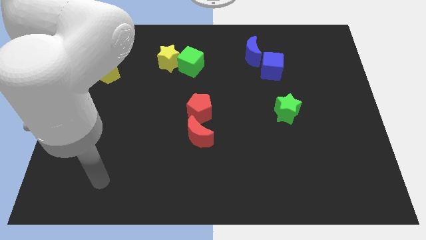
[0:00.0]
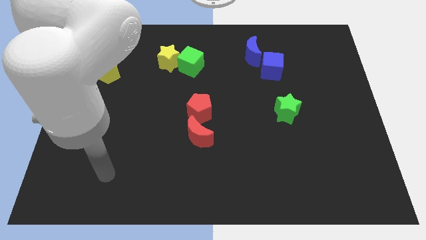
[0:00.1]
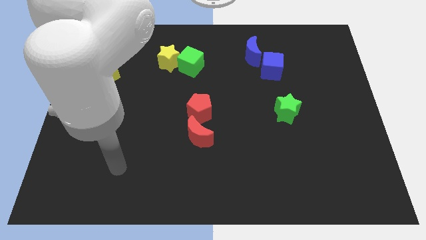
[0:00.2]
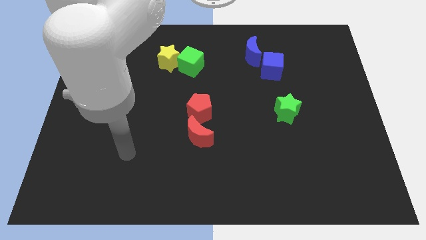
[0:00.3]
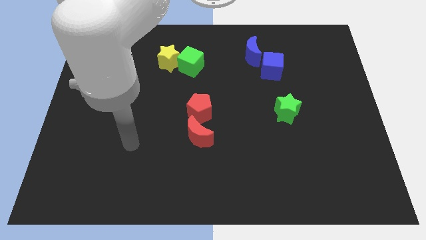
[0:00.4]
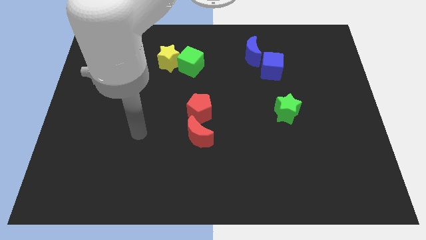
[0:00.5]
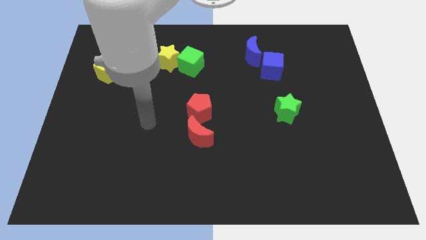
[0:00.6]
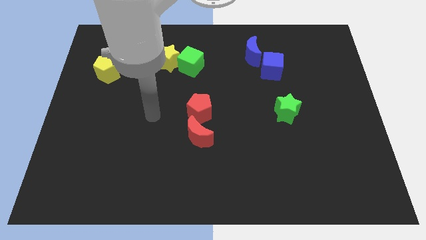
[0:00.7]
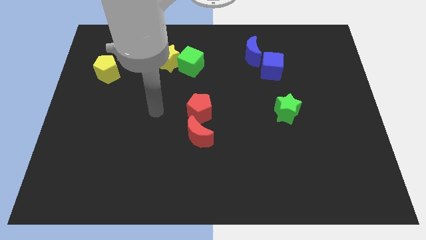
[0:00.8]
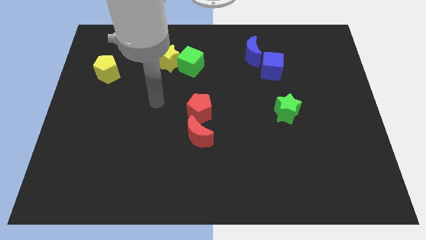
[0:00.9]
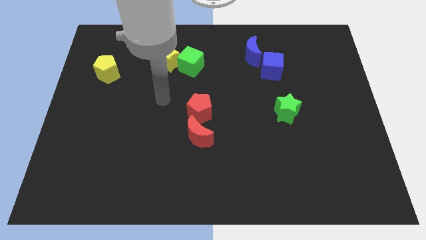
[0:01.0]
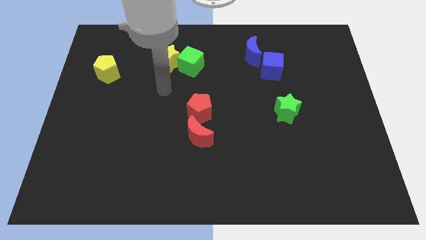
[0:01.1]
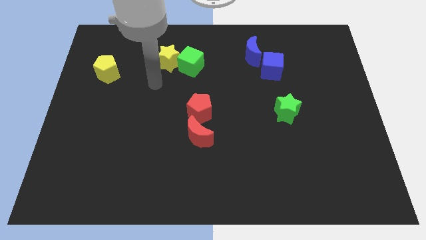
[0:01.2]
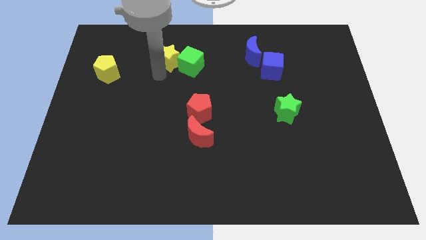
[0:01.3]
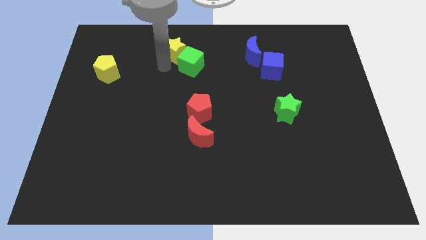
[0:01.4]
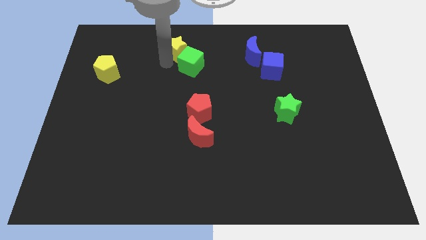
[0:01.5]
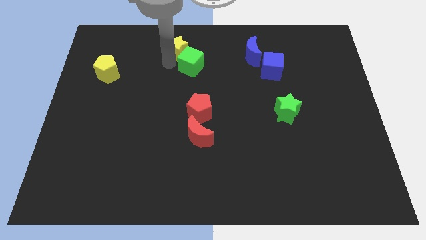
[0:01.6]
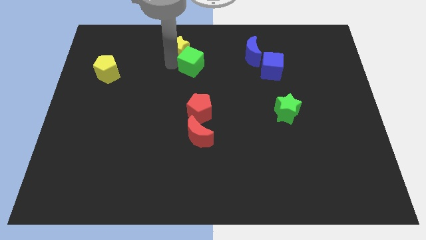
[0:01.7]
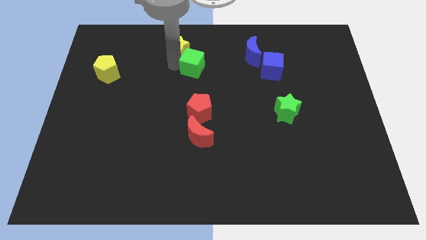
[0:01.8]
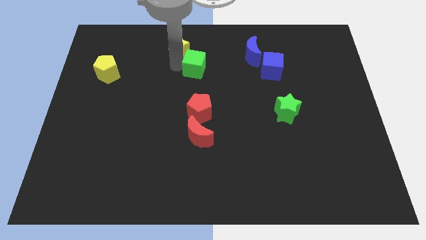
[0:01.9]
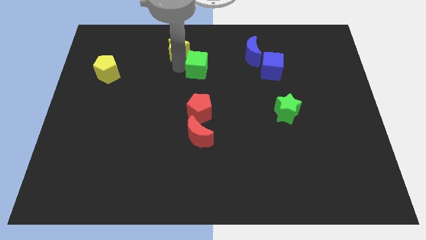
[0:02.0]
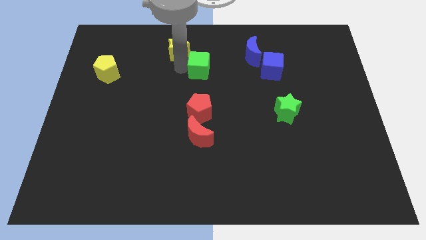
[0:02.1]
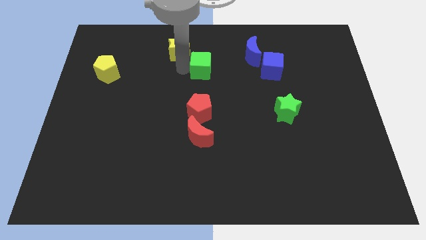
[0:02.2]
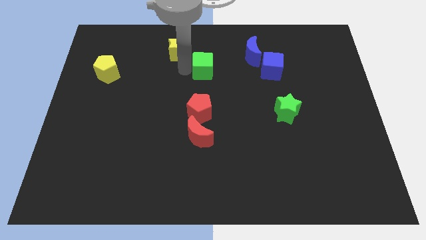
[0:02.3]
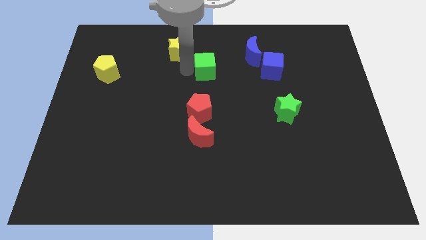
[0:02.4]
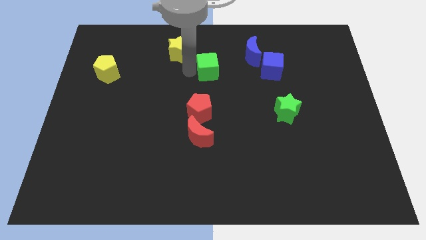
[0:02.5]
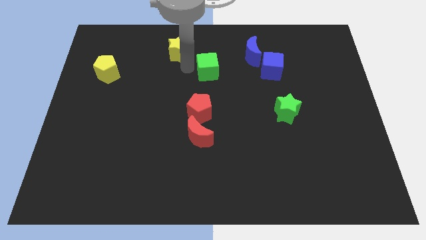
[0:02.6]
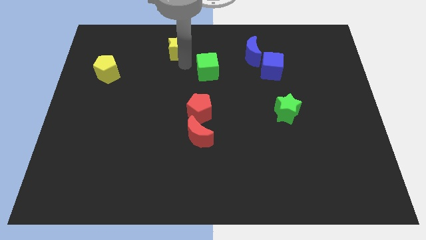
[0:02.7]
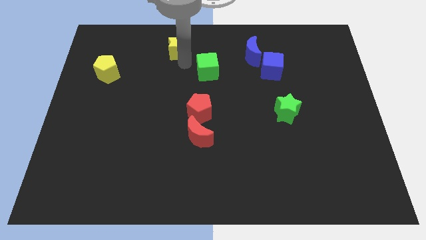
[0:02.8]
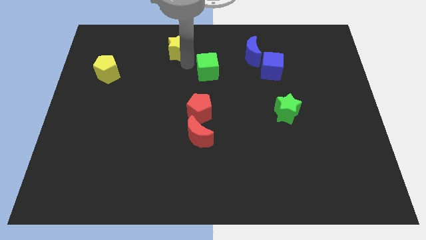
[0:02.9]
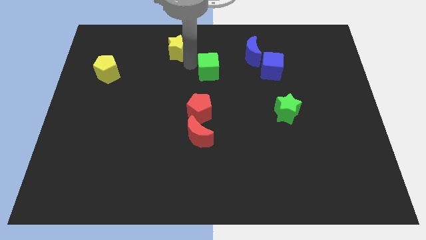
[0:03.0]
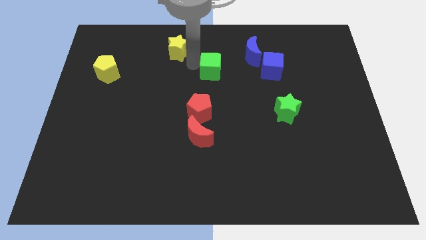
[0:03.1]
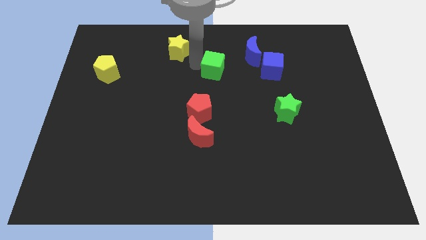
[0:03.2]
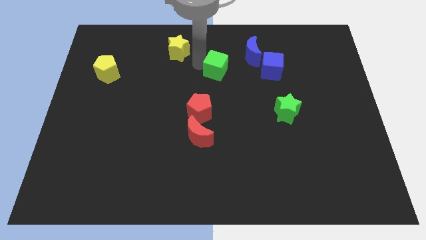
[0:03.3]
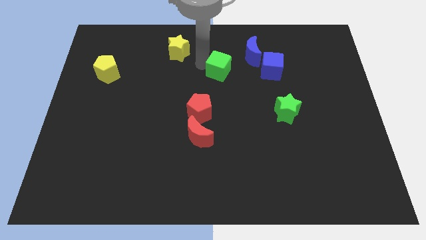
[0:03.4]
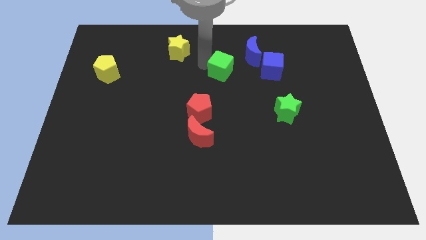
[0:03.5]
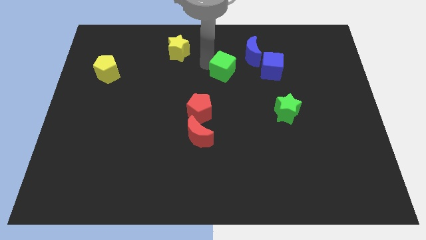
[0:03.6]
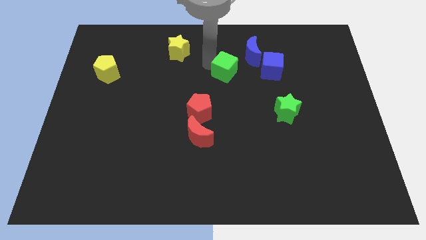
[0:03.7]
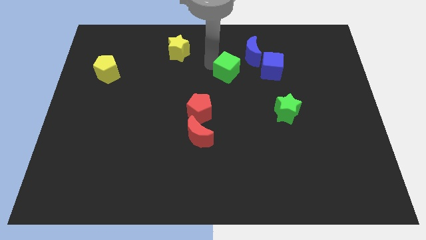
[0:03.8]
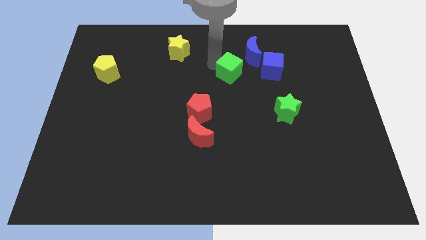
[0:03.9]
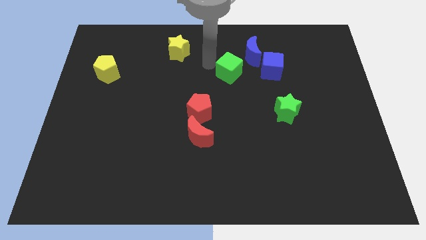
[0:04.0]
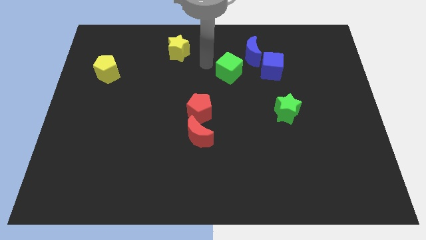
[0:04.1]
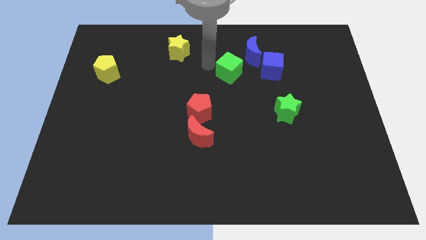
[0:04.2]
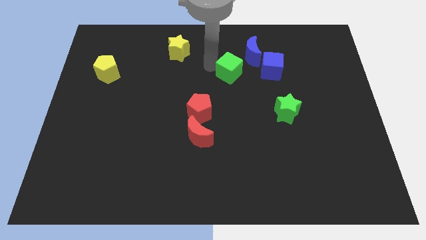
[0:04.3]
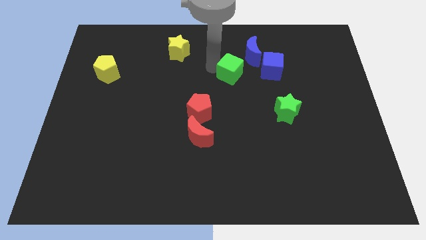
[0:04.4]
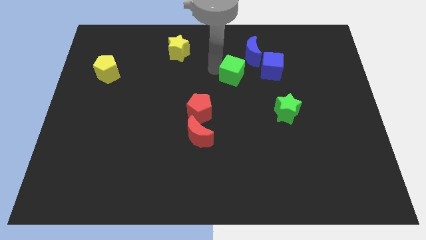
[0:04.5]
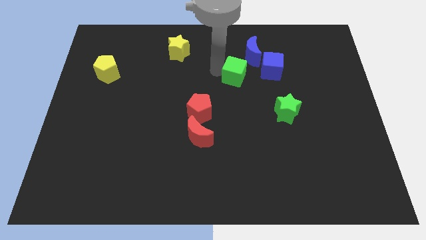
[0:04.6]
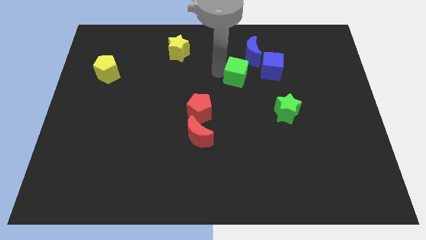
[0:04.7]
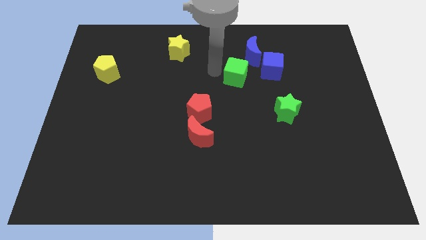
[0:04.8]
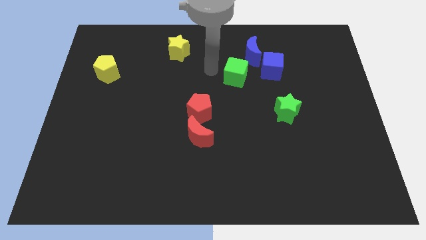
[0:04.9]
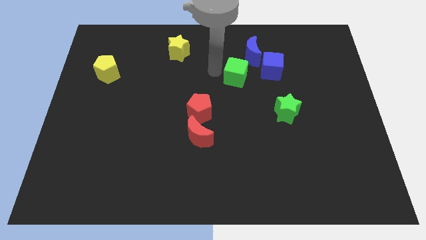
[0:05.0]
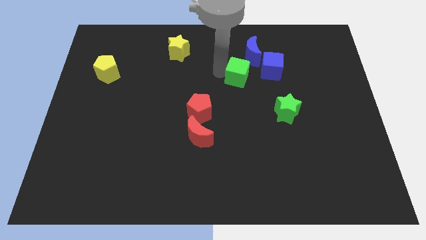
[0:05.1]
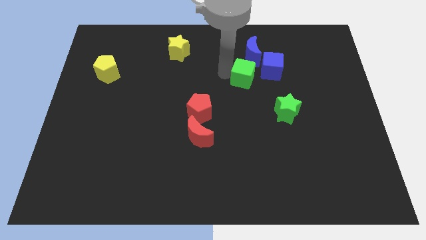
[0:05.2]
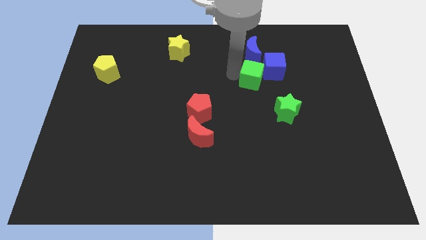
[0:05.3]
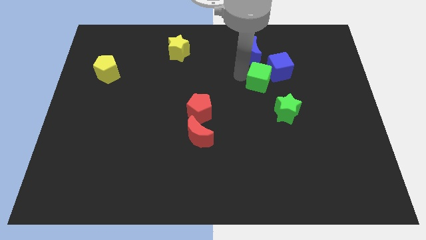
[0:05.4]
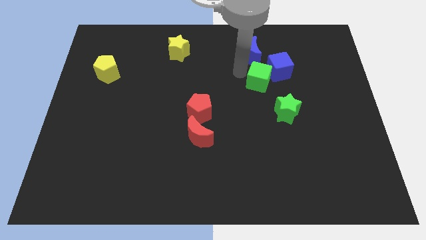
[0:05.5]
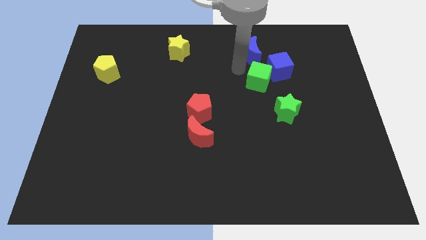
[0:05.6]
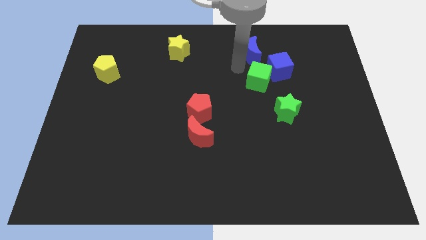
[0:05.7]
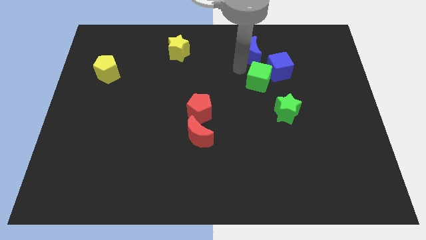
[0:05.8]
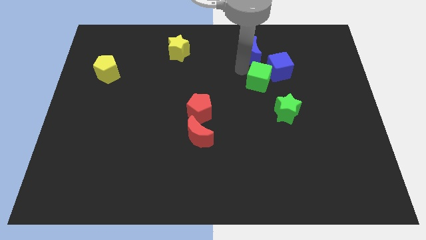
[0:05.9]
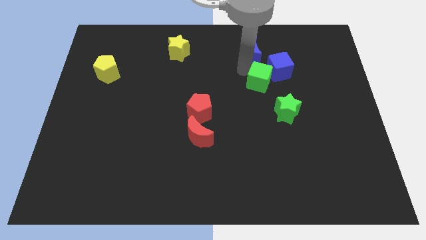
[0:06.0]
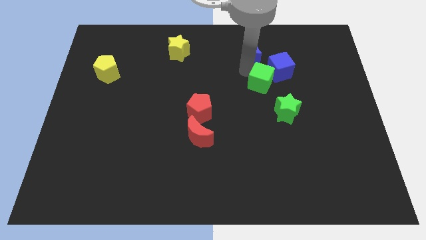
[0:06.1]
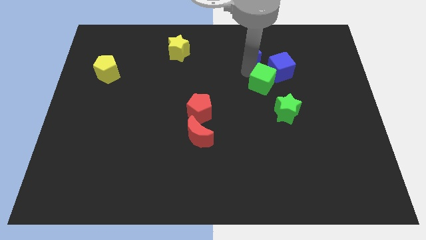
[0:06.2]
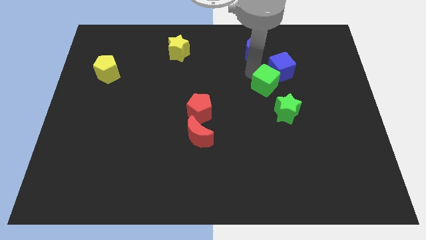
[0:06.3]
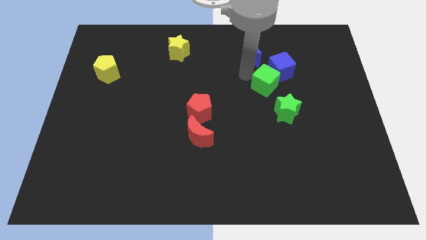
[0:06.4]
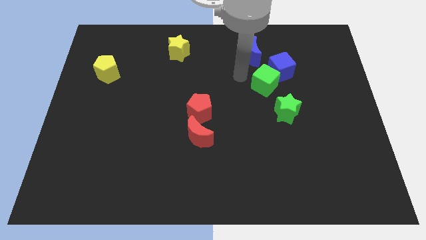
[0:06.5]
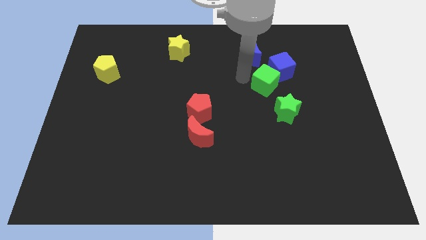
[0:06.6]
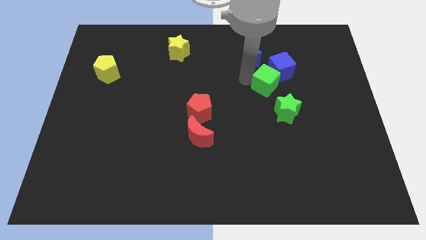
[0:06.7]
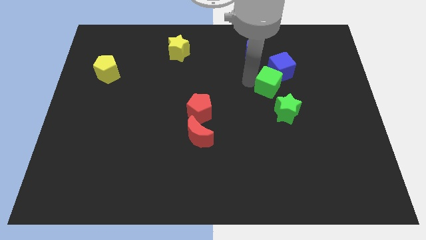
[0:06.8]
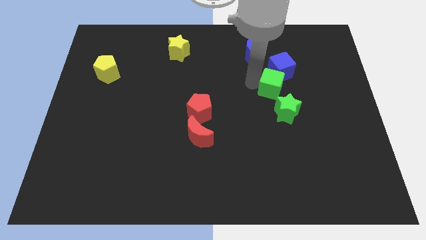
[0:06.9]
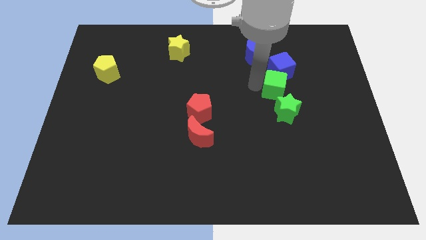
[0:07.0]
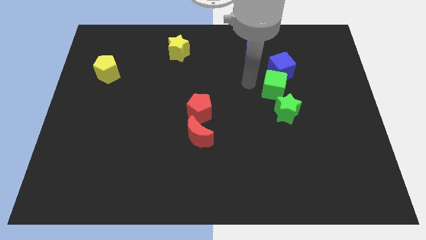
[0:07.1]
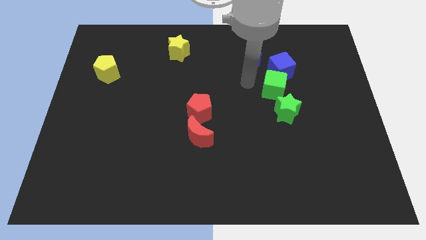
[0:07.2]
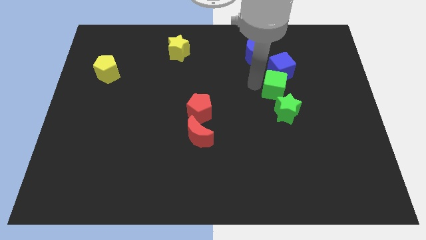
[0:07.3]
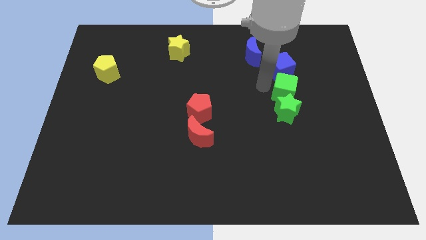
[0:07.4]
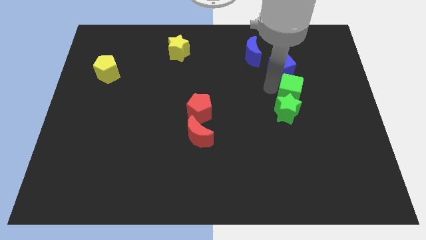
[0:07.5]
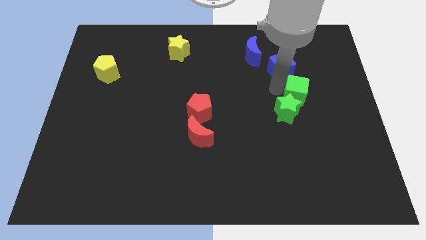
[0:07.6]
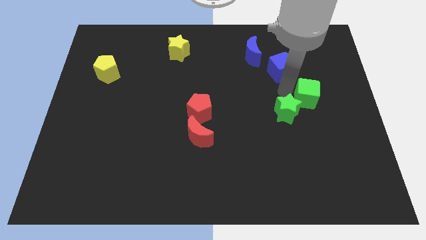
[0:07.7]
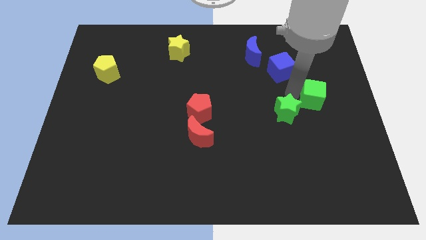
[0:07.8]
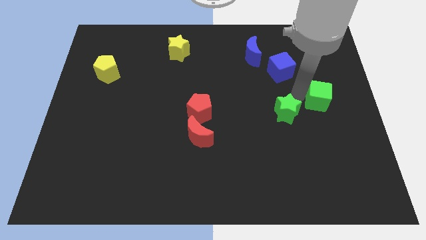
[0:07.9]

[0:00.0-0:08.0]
put the green cube to the right side of the board

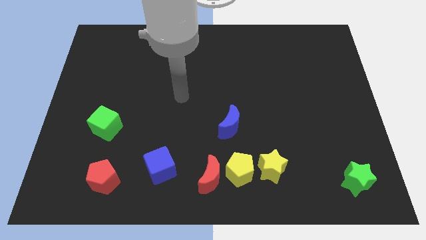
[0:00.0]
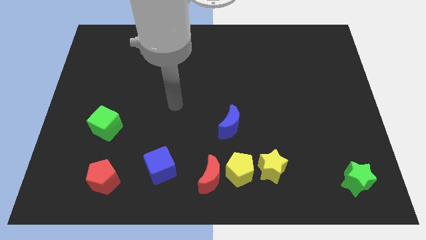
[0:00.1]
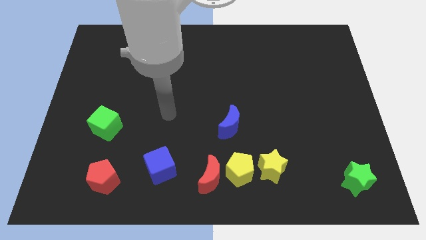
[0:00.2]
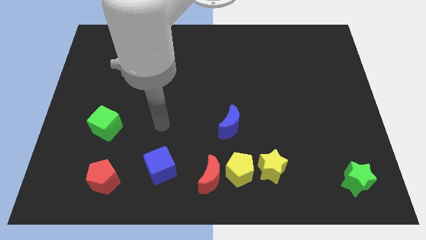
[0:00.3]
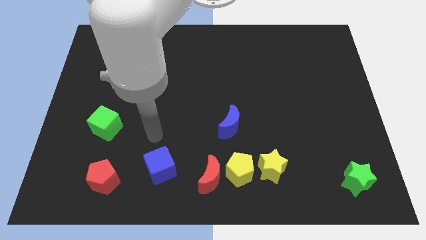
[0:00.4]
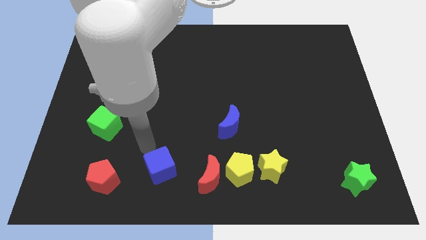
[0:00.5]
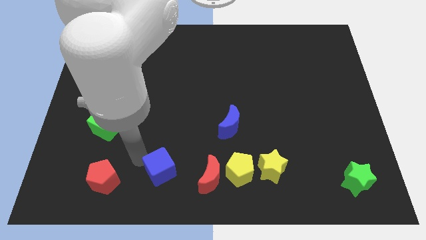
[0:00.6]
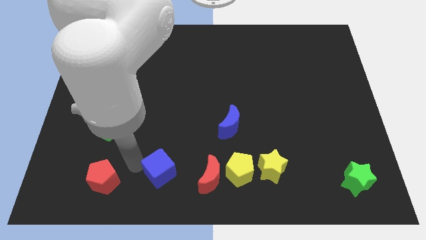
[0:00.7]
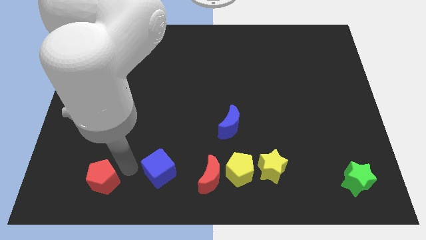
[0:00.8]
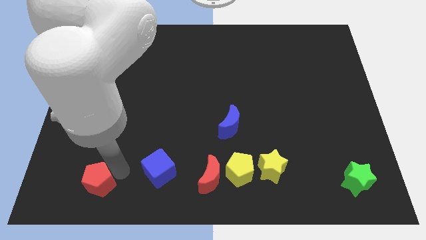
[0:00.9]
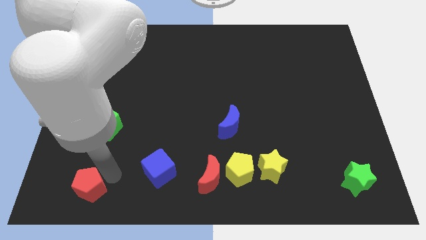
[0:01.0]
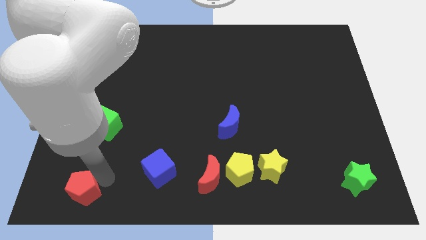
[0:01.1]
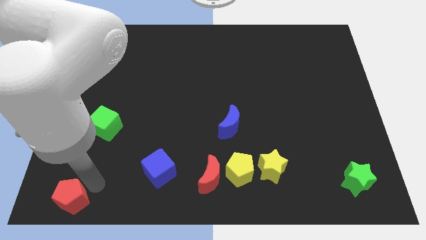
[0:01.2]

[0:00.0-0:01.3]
push the red pentagon to the lower left corner
